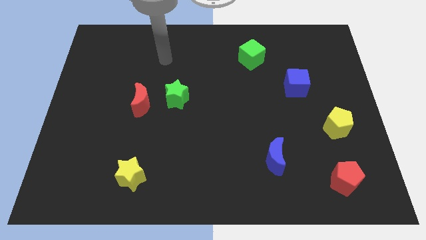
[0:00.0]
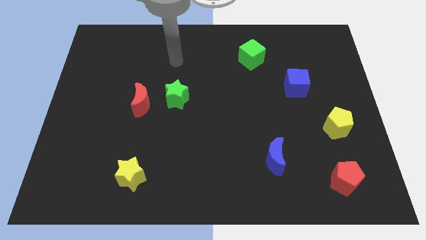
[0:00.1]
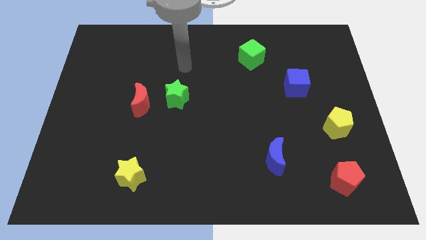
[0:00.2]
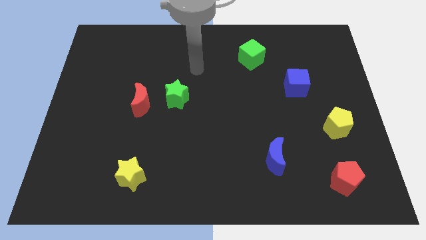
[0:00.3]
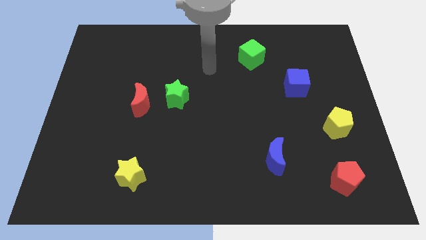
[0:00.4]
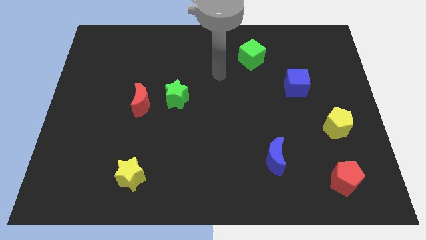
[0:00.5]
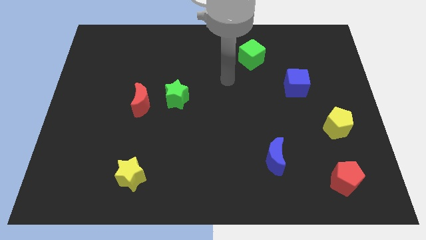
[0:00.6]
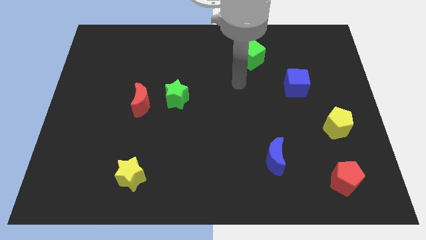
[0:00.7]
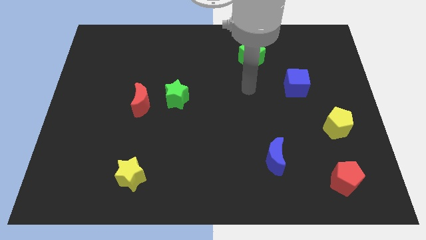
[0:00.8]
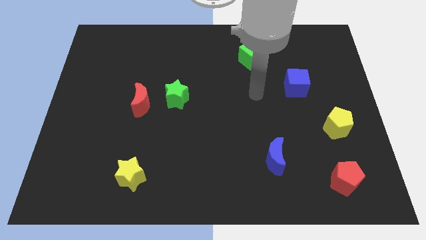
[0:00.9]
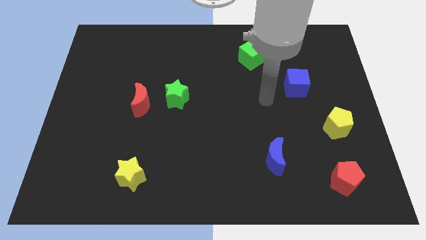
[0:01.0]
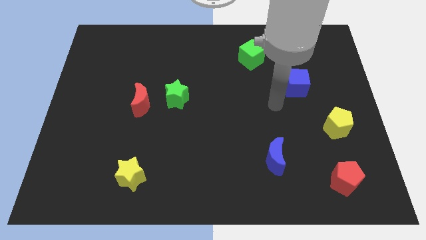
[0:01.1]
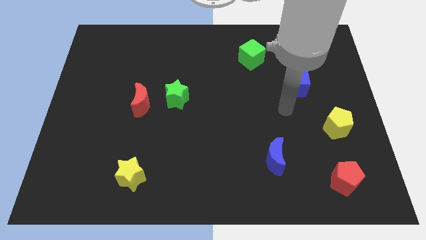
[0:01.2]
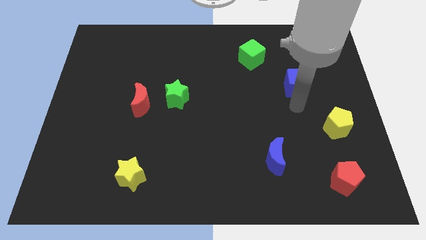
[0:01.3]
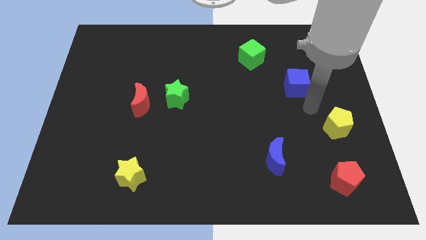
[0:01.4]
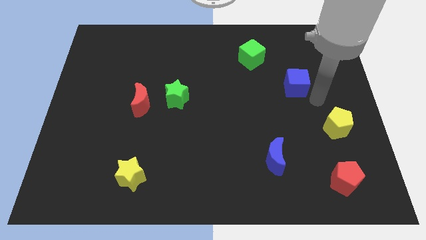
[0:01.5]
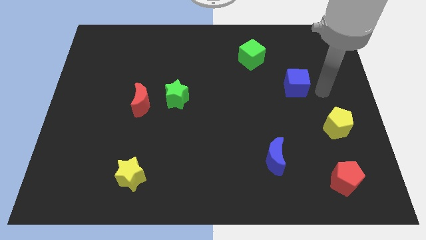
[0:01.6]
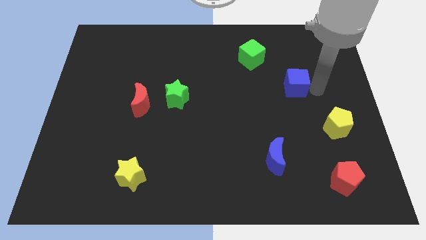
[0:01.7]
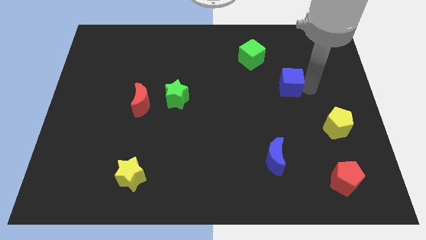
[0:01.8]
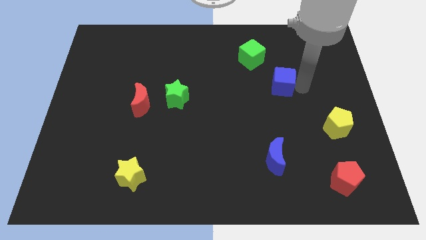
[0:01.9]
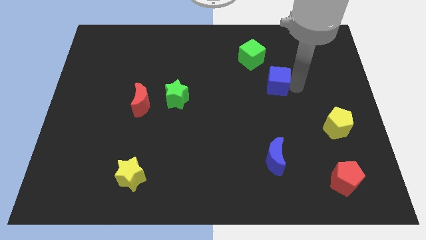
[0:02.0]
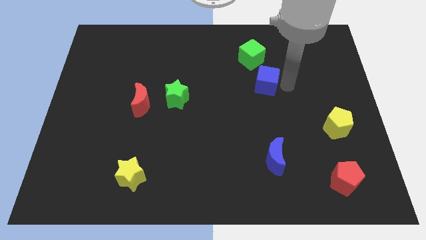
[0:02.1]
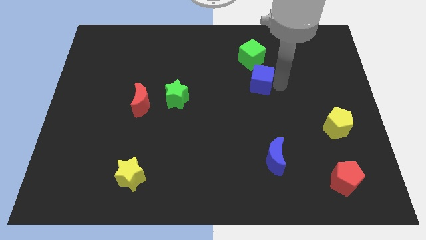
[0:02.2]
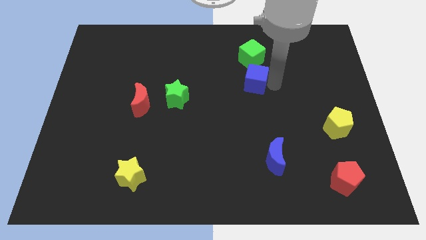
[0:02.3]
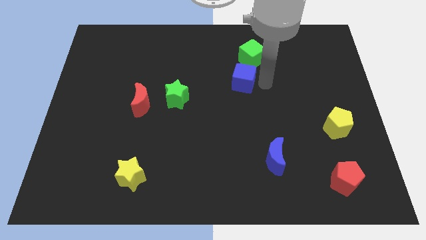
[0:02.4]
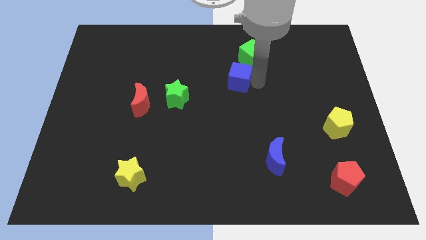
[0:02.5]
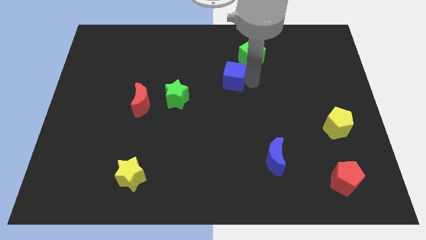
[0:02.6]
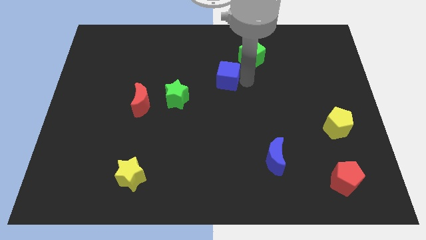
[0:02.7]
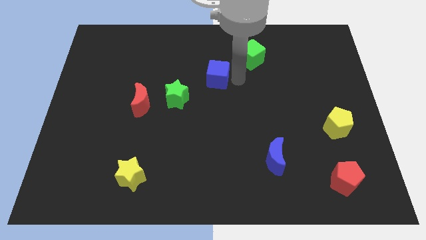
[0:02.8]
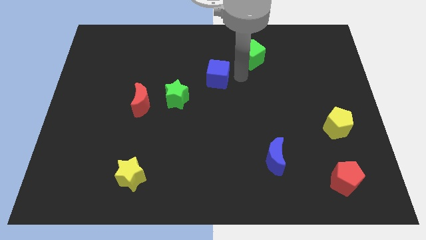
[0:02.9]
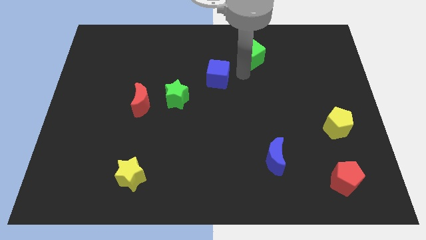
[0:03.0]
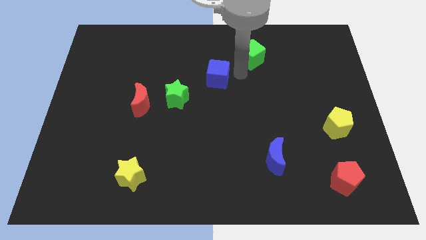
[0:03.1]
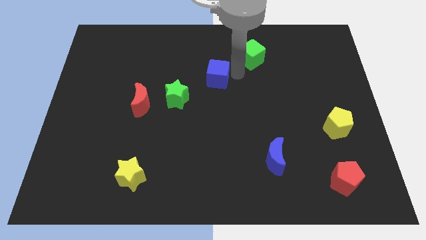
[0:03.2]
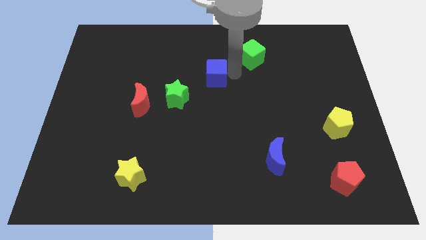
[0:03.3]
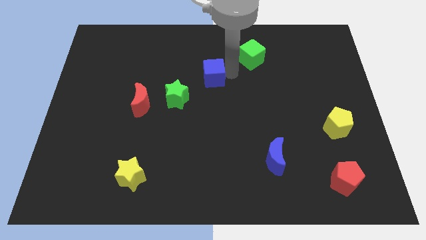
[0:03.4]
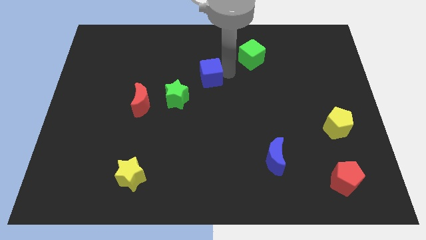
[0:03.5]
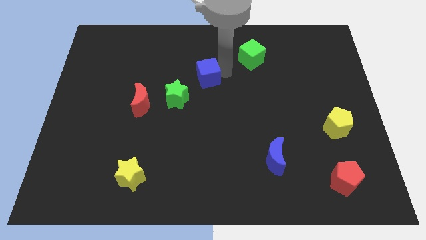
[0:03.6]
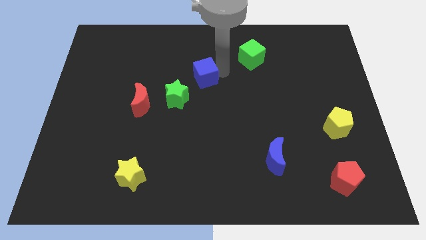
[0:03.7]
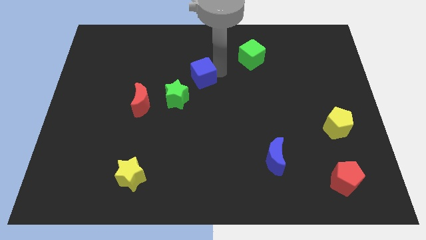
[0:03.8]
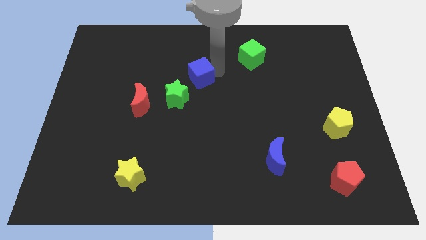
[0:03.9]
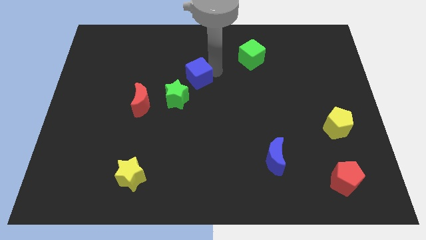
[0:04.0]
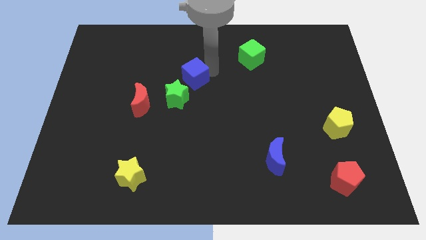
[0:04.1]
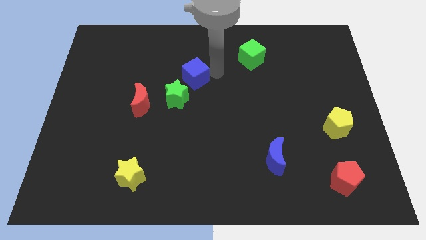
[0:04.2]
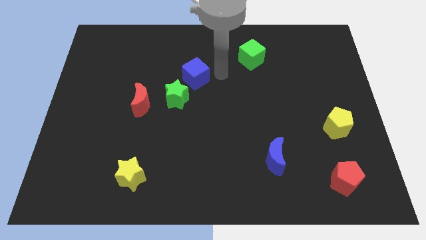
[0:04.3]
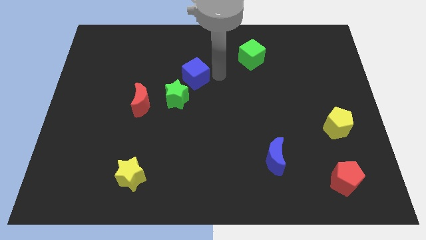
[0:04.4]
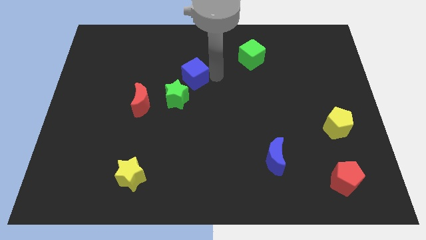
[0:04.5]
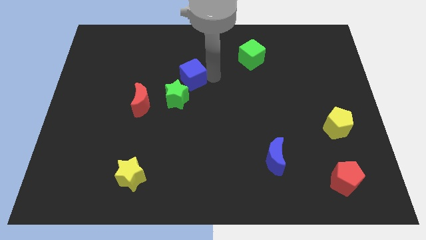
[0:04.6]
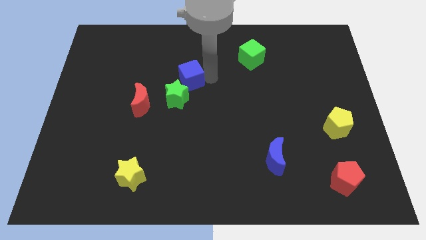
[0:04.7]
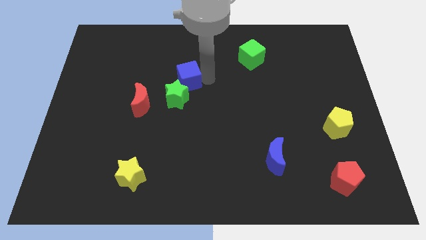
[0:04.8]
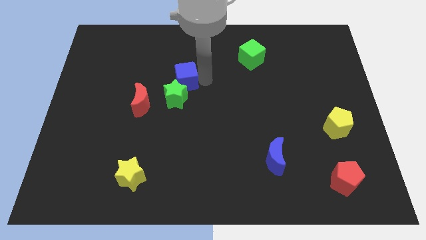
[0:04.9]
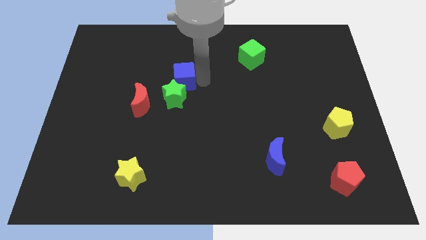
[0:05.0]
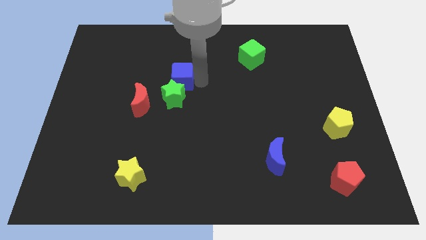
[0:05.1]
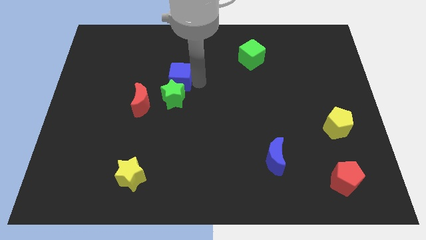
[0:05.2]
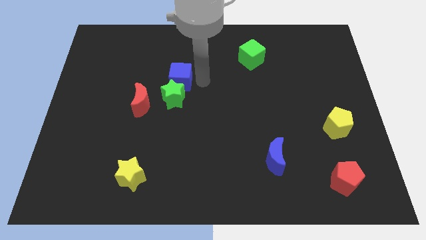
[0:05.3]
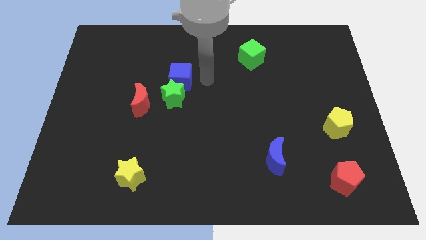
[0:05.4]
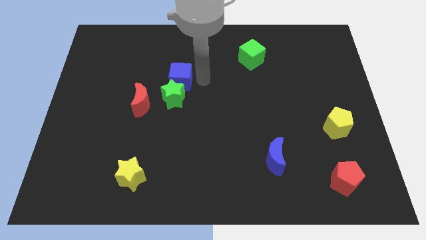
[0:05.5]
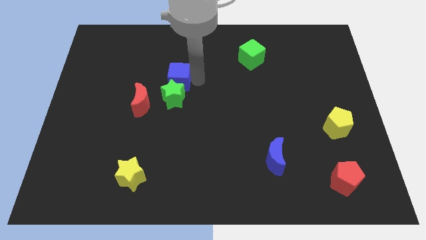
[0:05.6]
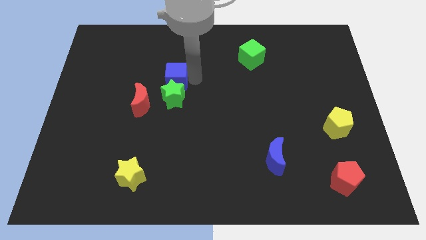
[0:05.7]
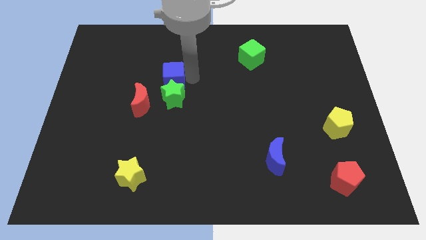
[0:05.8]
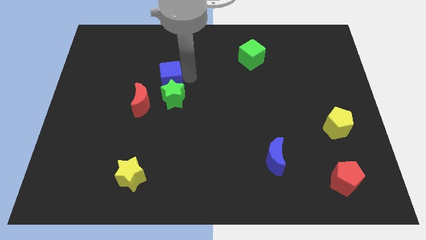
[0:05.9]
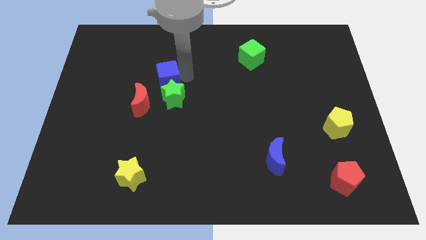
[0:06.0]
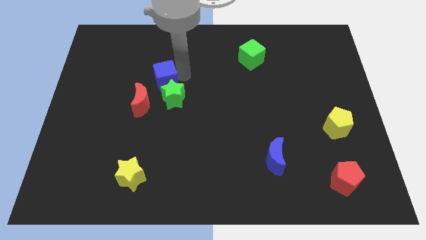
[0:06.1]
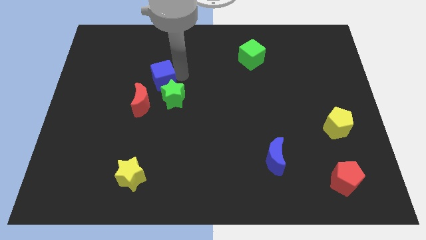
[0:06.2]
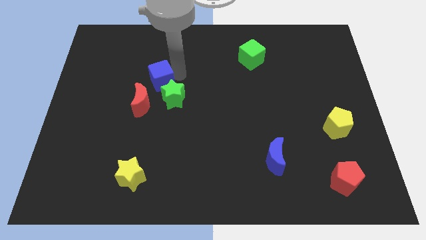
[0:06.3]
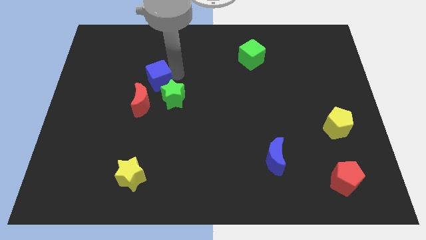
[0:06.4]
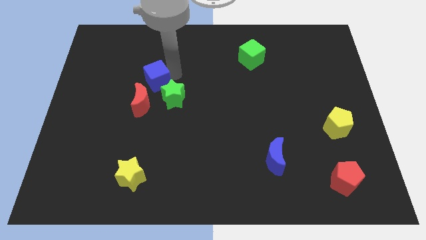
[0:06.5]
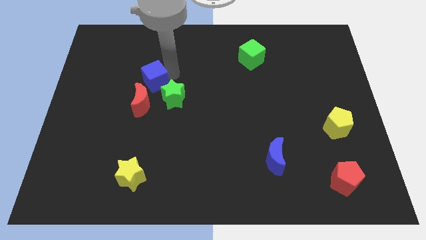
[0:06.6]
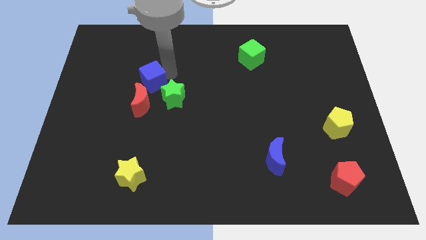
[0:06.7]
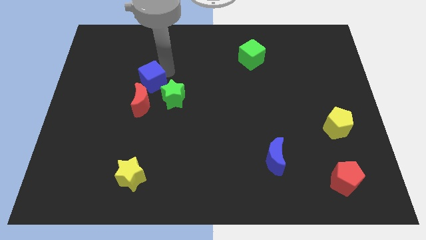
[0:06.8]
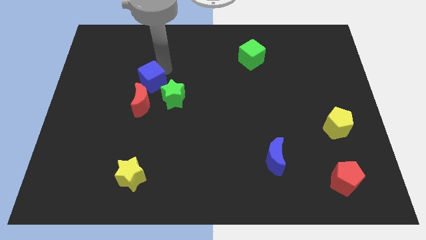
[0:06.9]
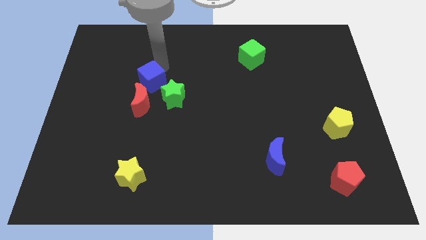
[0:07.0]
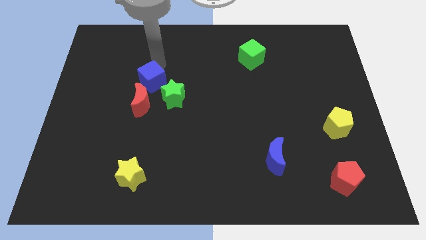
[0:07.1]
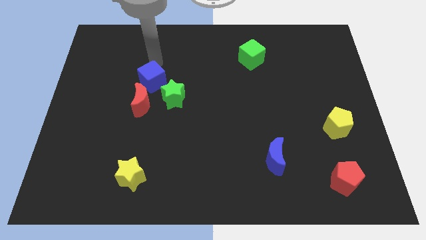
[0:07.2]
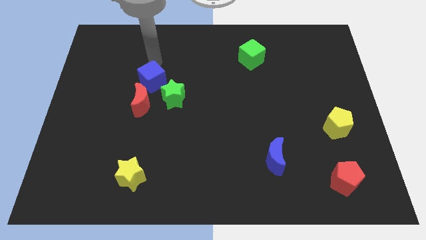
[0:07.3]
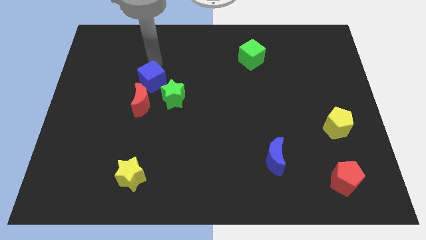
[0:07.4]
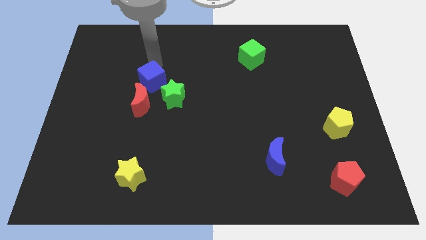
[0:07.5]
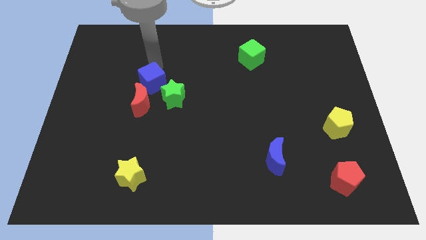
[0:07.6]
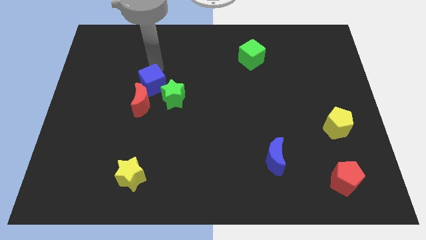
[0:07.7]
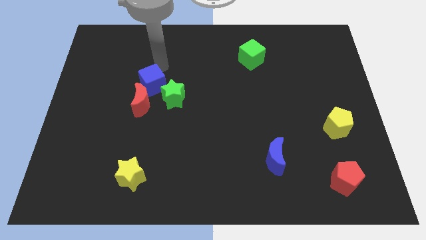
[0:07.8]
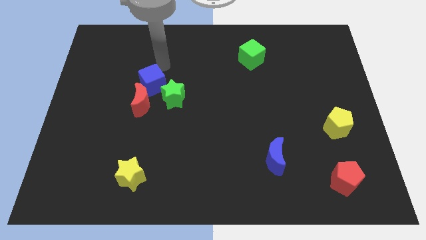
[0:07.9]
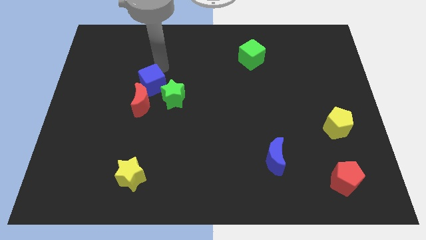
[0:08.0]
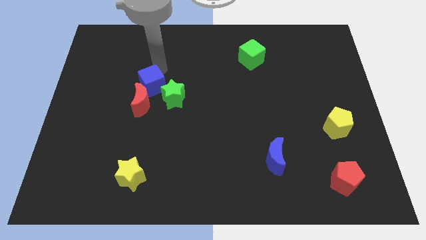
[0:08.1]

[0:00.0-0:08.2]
push the blue cube next to the red moon
